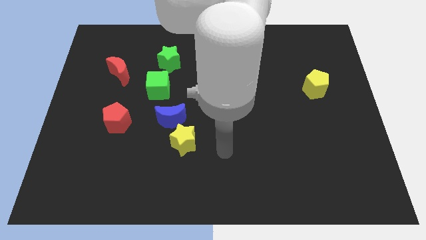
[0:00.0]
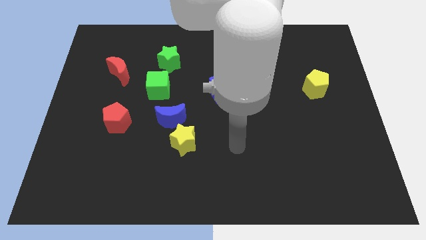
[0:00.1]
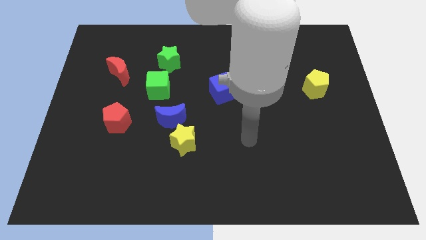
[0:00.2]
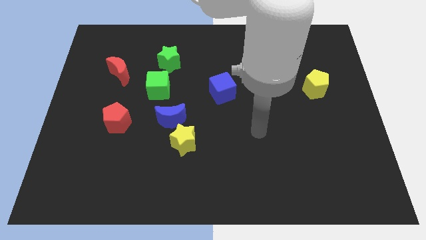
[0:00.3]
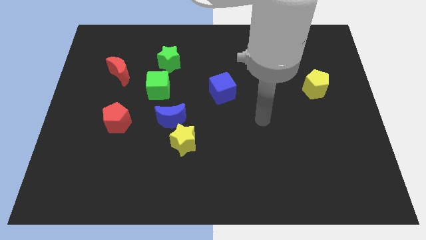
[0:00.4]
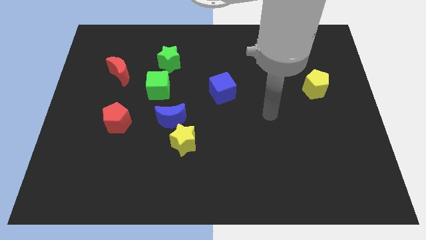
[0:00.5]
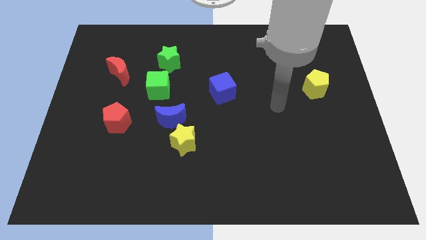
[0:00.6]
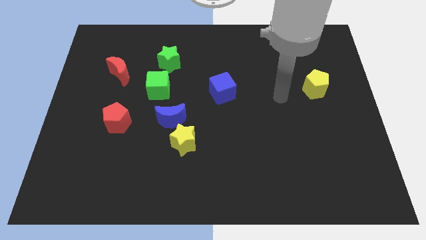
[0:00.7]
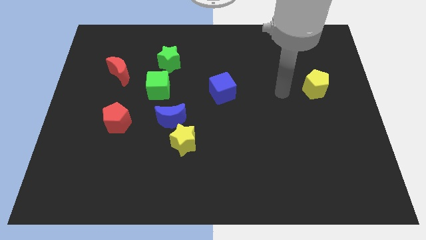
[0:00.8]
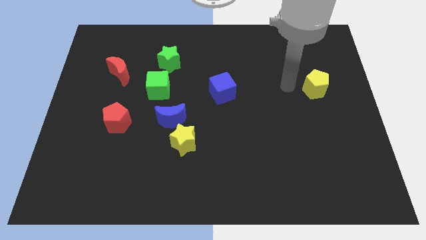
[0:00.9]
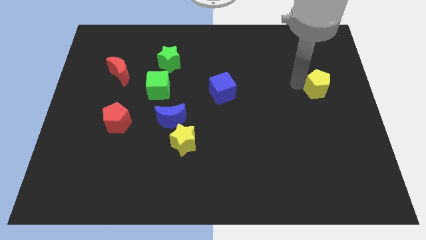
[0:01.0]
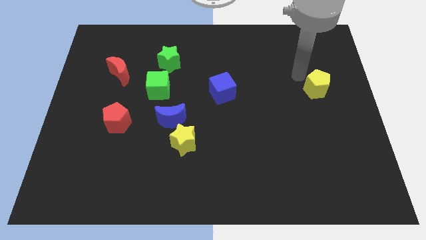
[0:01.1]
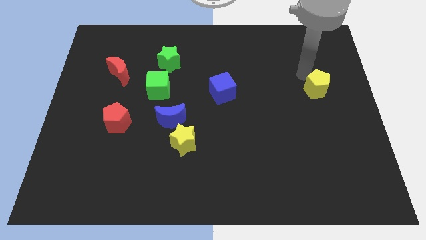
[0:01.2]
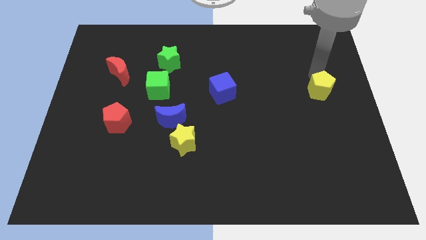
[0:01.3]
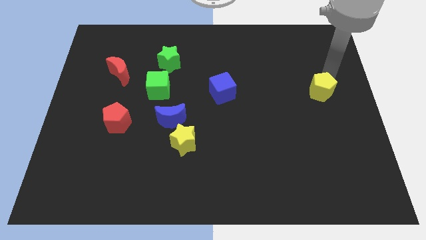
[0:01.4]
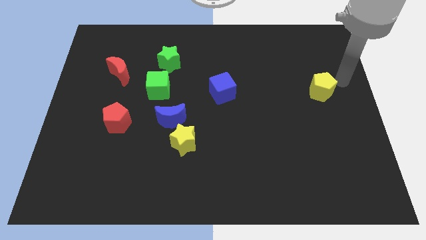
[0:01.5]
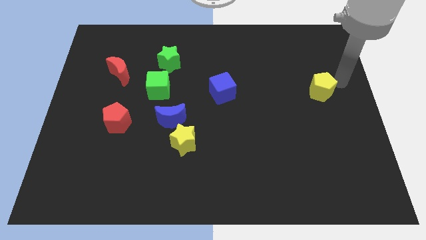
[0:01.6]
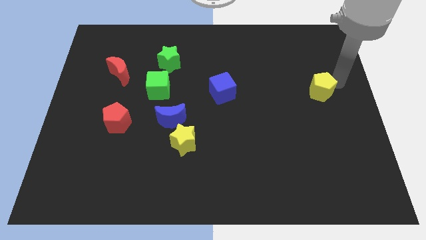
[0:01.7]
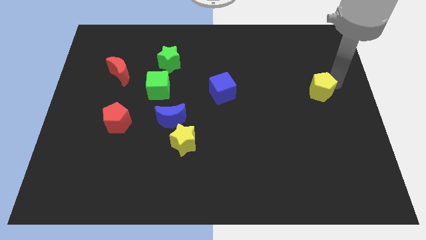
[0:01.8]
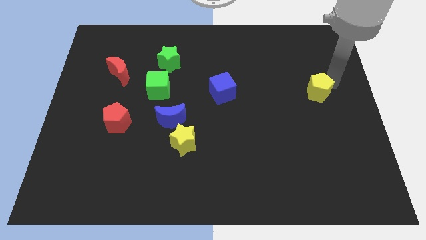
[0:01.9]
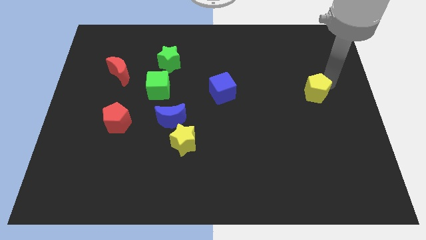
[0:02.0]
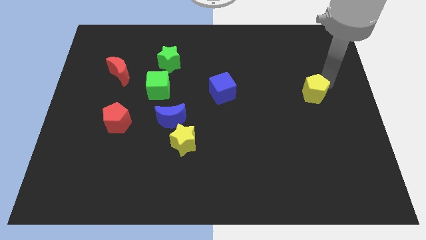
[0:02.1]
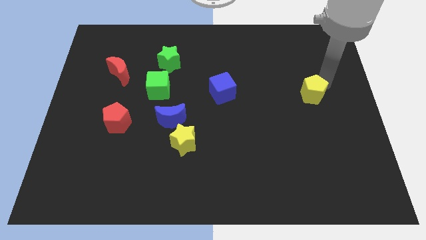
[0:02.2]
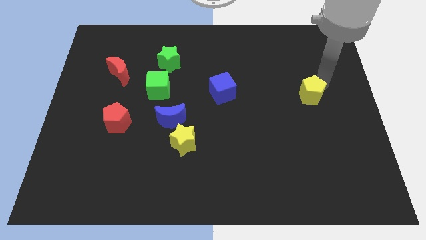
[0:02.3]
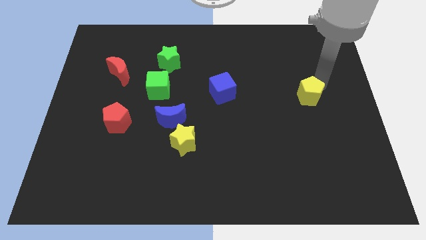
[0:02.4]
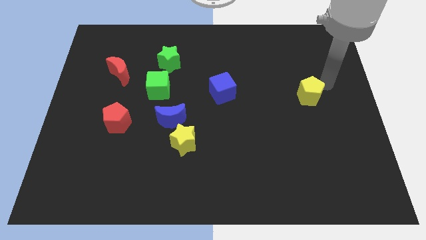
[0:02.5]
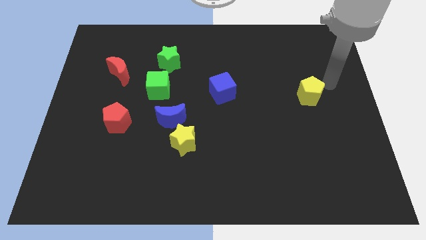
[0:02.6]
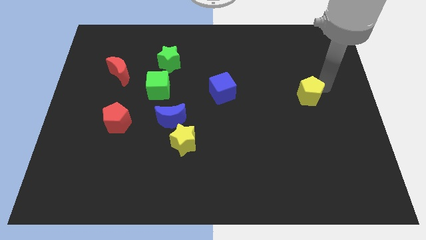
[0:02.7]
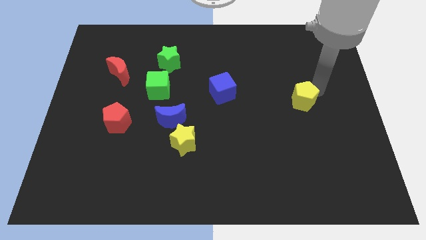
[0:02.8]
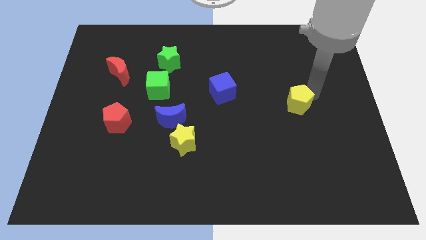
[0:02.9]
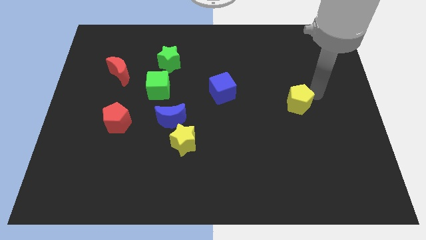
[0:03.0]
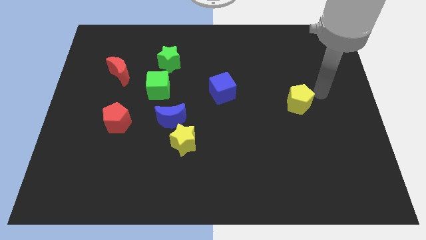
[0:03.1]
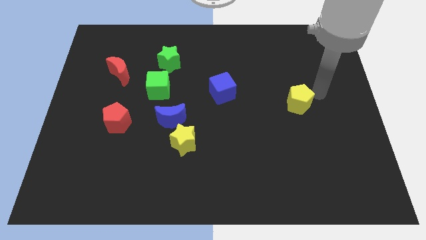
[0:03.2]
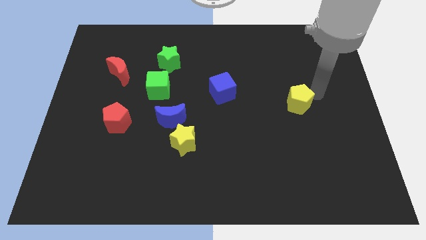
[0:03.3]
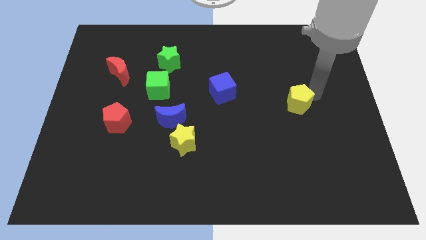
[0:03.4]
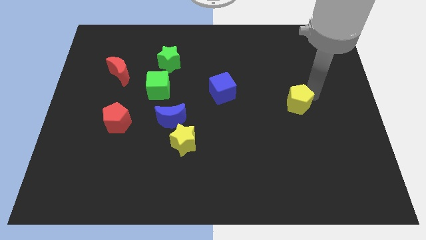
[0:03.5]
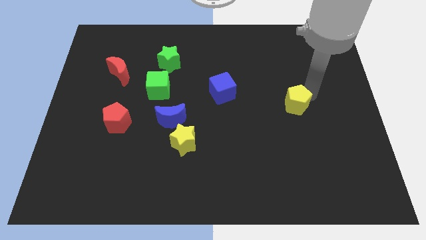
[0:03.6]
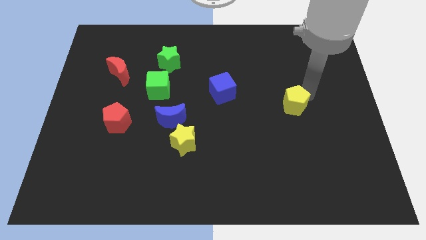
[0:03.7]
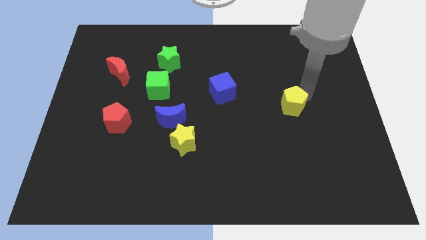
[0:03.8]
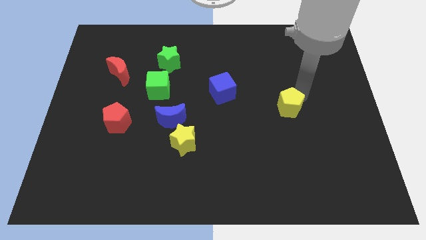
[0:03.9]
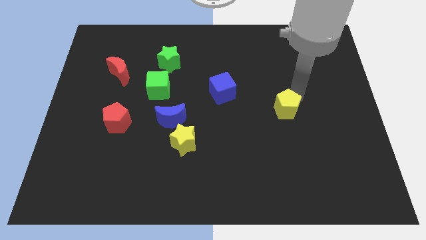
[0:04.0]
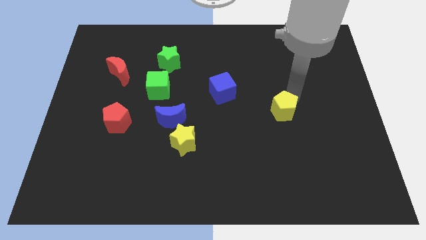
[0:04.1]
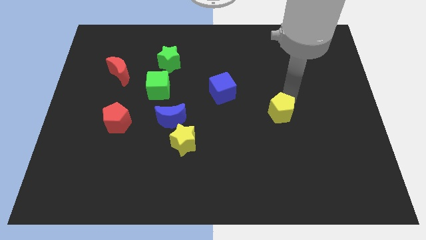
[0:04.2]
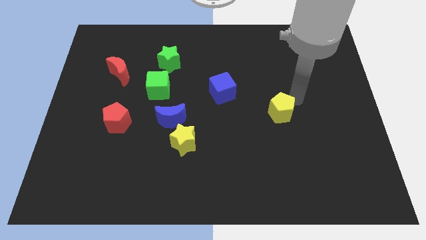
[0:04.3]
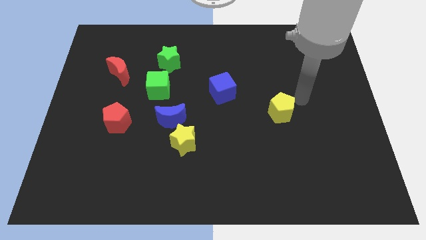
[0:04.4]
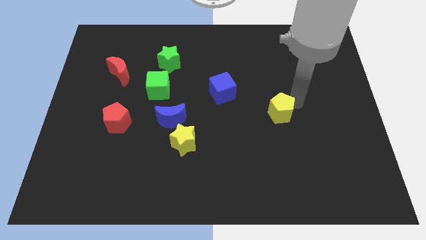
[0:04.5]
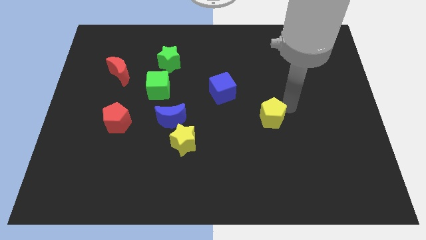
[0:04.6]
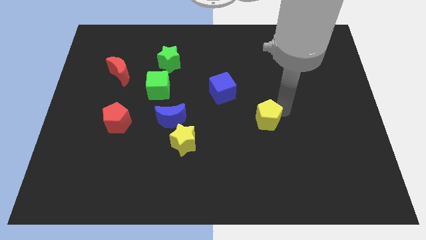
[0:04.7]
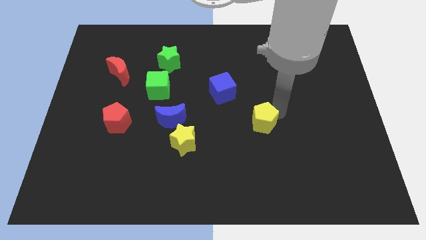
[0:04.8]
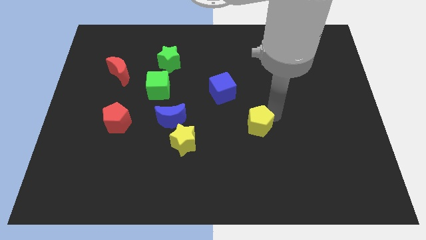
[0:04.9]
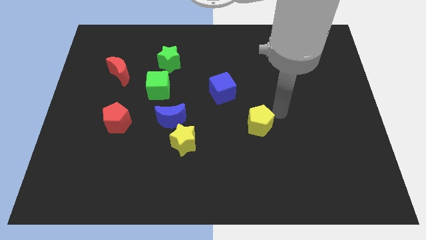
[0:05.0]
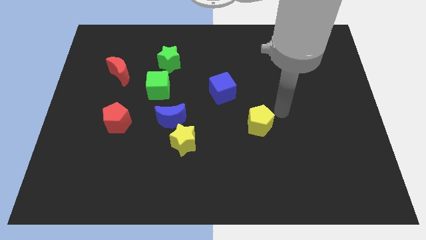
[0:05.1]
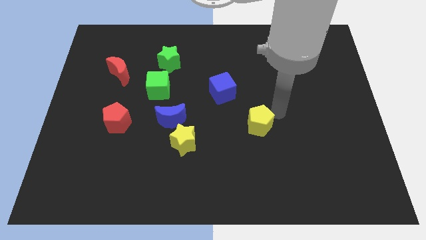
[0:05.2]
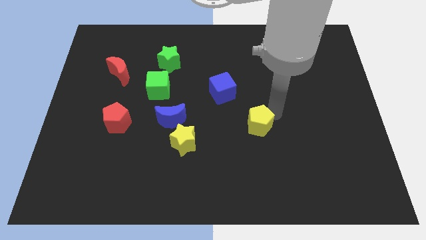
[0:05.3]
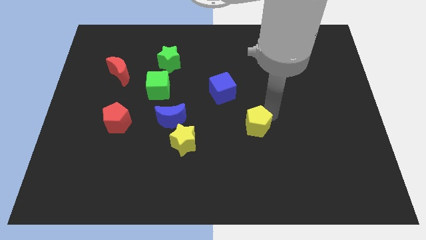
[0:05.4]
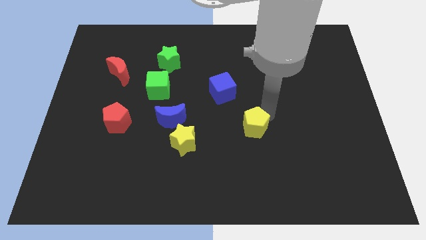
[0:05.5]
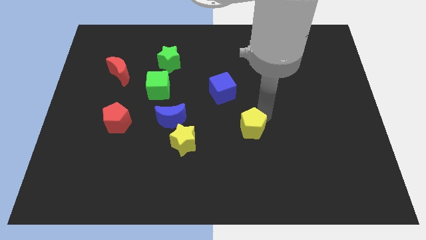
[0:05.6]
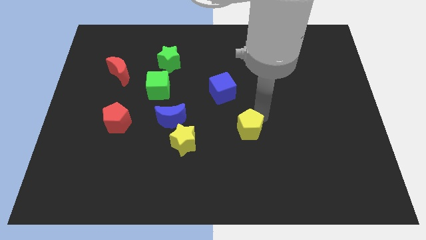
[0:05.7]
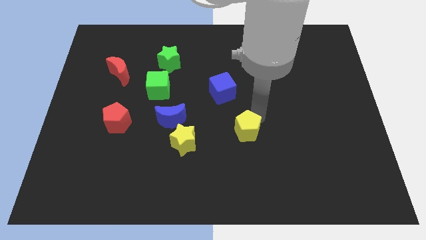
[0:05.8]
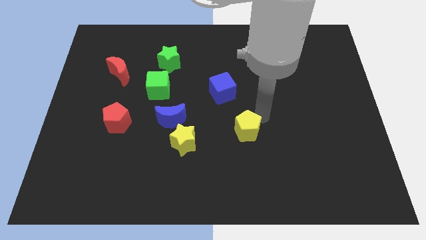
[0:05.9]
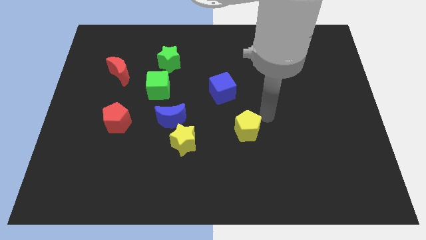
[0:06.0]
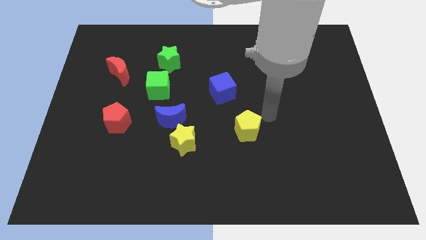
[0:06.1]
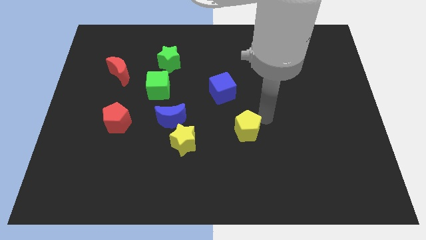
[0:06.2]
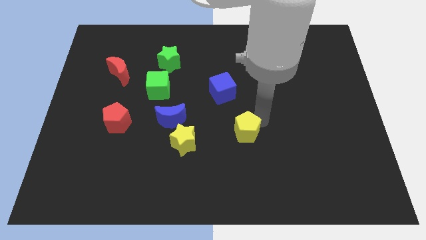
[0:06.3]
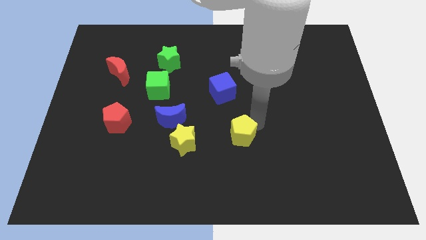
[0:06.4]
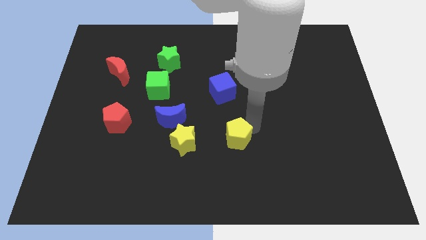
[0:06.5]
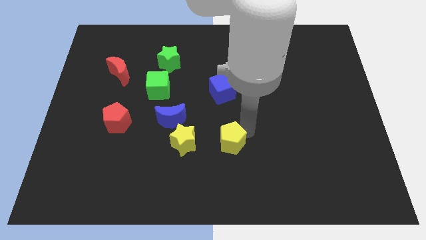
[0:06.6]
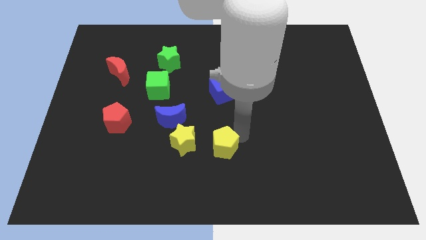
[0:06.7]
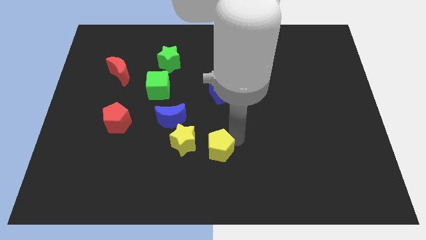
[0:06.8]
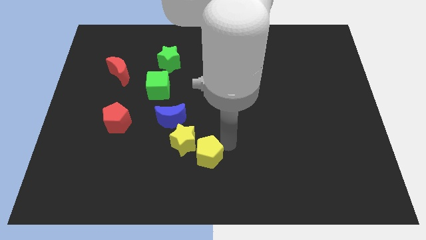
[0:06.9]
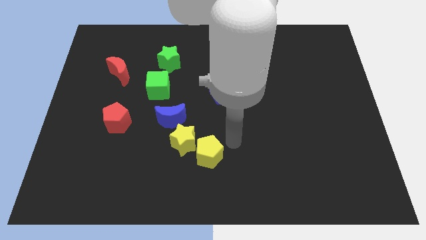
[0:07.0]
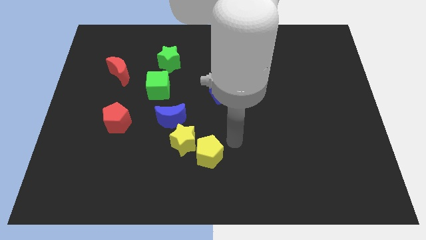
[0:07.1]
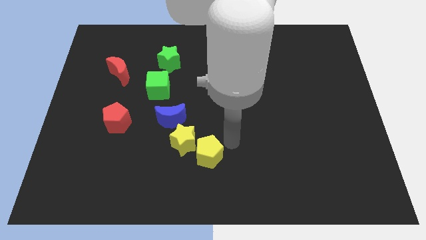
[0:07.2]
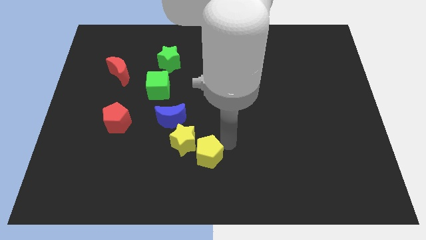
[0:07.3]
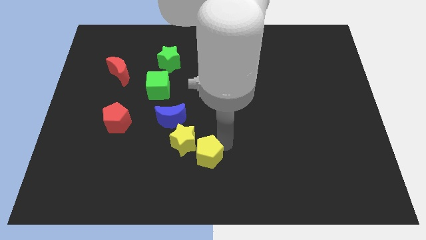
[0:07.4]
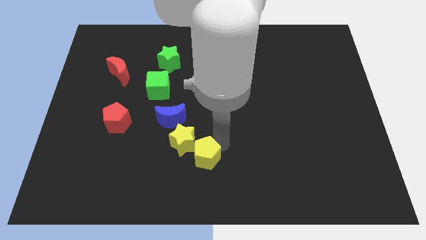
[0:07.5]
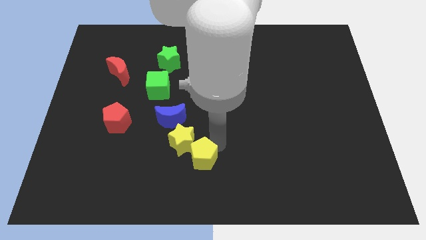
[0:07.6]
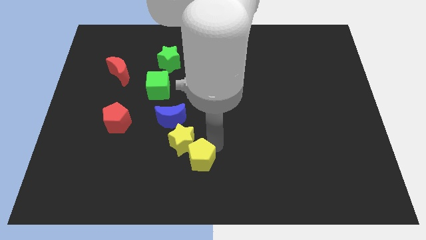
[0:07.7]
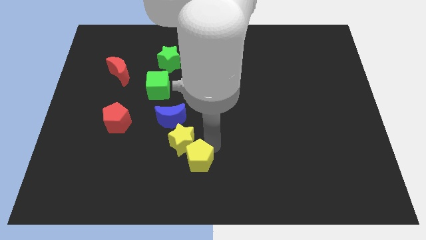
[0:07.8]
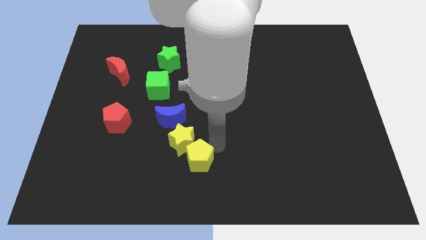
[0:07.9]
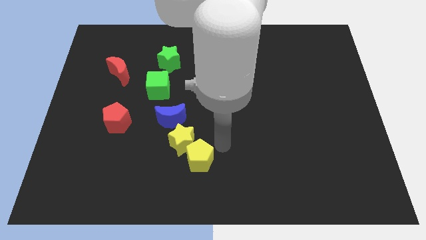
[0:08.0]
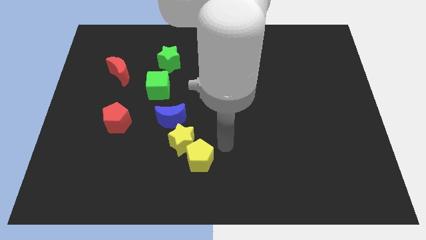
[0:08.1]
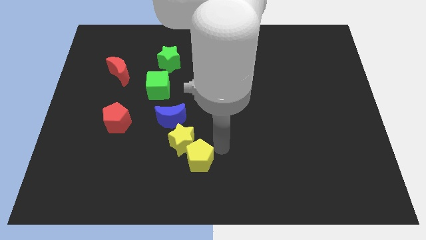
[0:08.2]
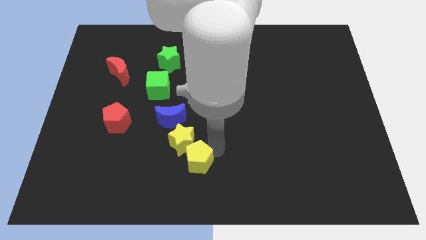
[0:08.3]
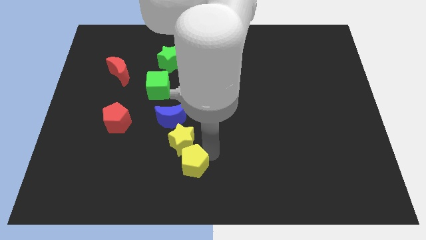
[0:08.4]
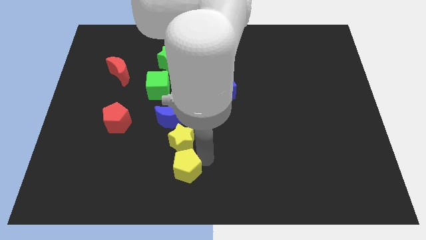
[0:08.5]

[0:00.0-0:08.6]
slide the yellow pentagon to the bottom left side of the yellow star
